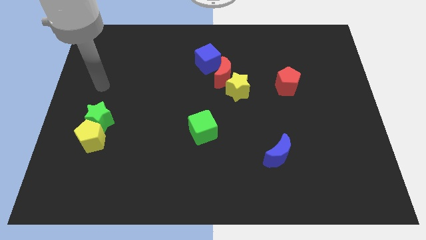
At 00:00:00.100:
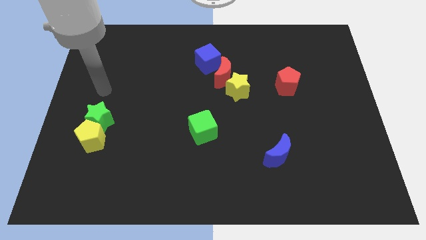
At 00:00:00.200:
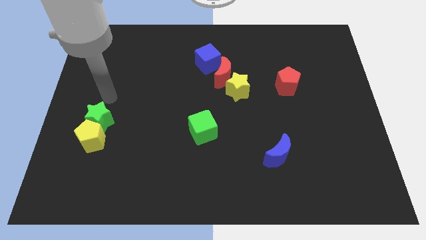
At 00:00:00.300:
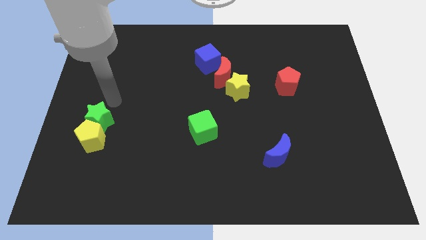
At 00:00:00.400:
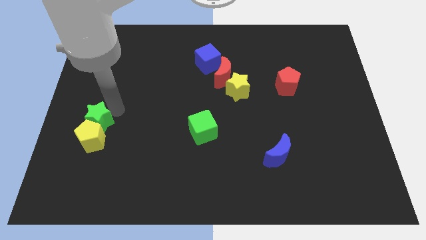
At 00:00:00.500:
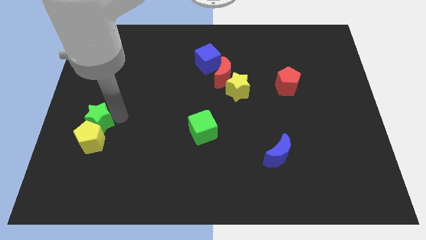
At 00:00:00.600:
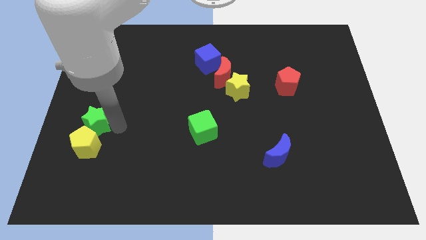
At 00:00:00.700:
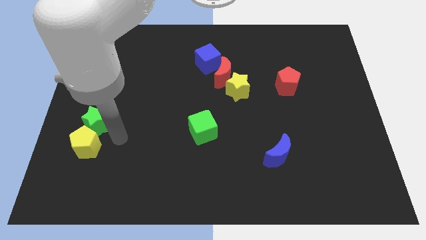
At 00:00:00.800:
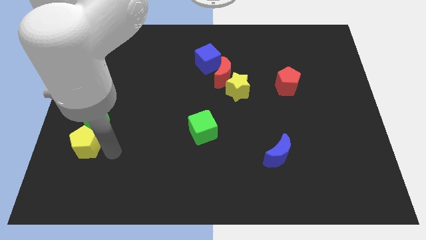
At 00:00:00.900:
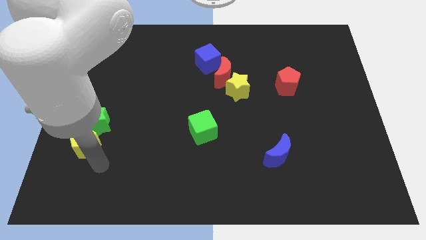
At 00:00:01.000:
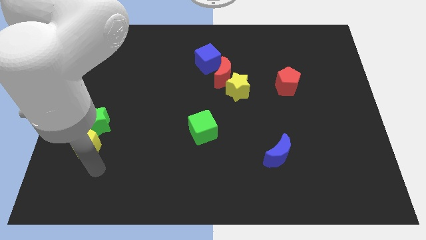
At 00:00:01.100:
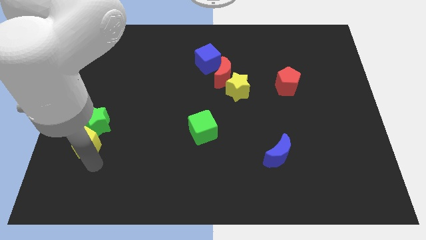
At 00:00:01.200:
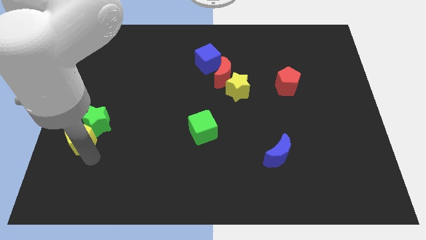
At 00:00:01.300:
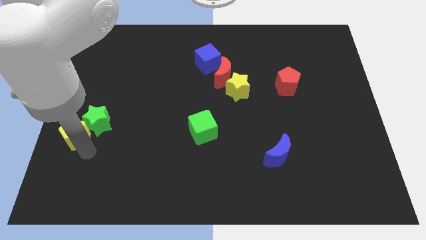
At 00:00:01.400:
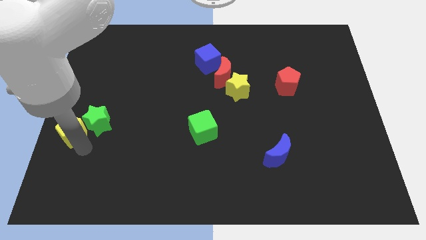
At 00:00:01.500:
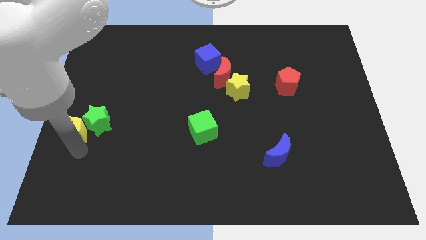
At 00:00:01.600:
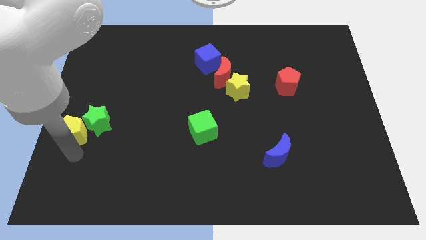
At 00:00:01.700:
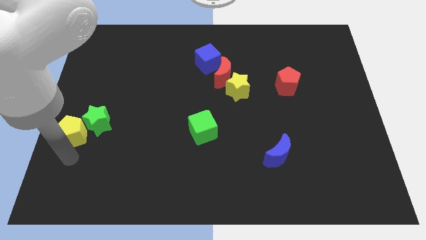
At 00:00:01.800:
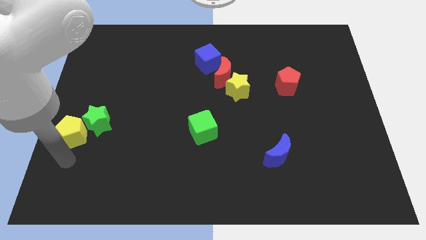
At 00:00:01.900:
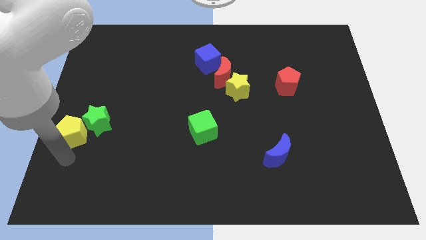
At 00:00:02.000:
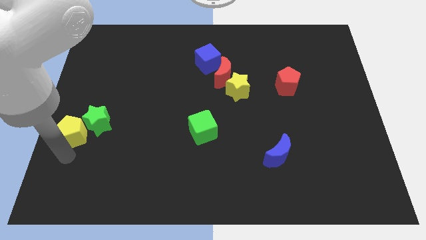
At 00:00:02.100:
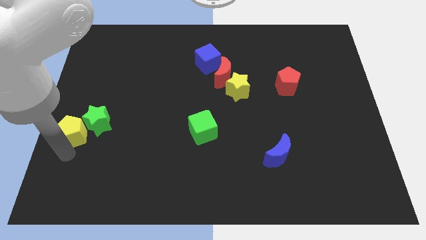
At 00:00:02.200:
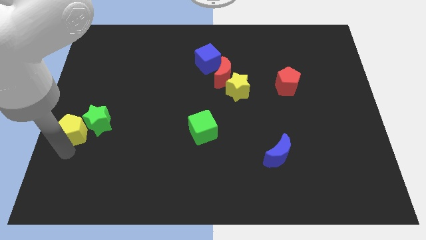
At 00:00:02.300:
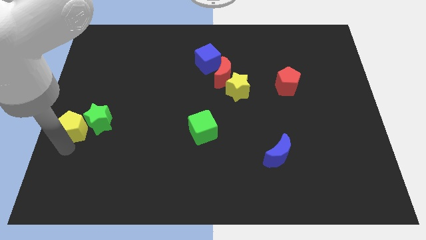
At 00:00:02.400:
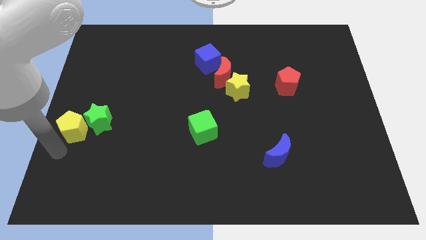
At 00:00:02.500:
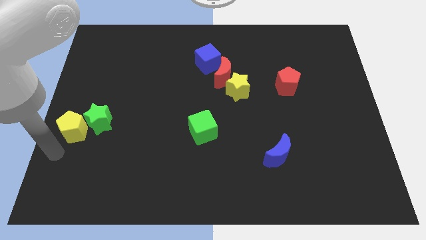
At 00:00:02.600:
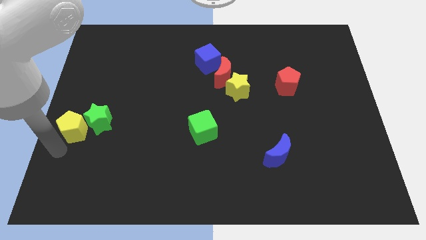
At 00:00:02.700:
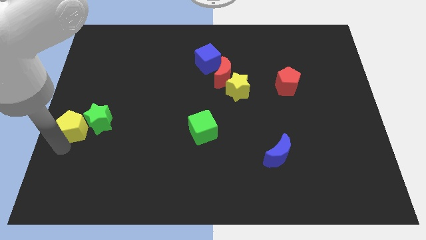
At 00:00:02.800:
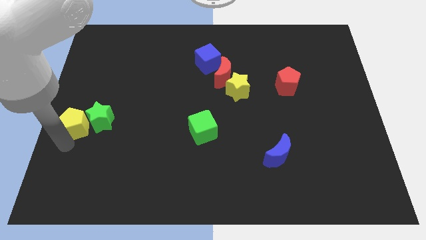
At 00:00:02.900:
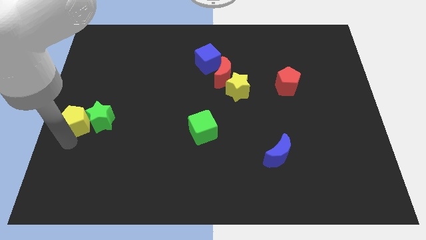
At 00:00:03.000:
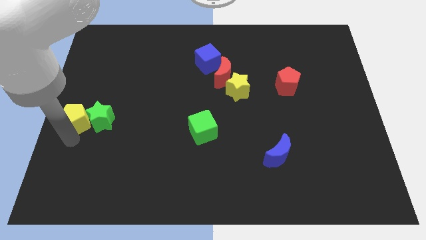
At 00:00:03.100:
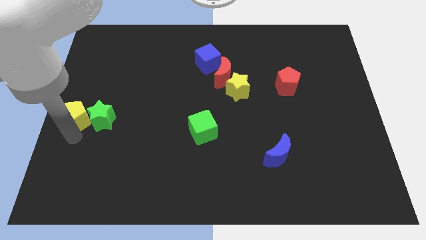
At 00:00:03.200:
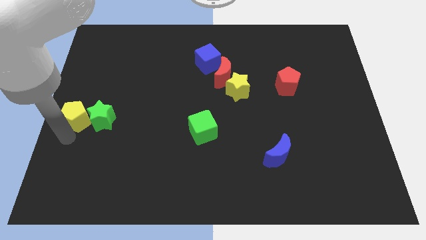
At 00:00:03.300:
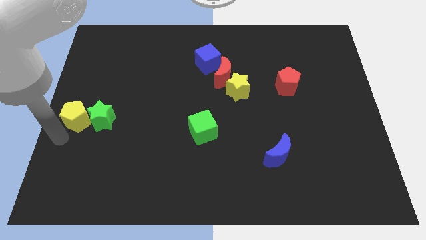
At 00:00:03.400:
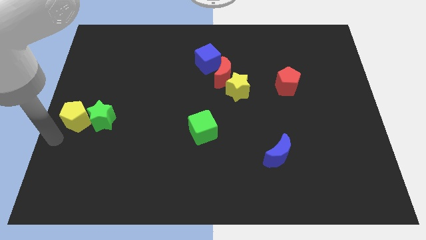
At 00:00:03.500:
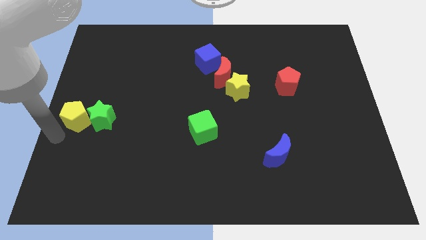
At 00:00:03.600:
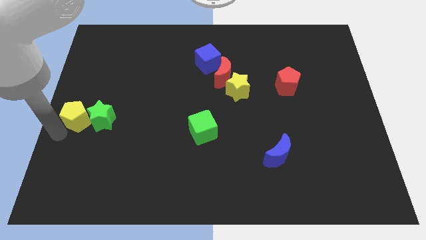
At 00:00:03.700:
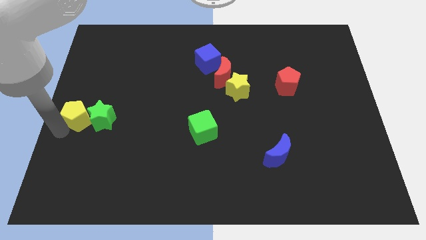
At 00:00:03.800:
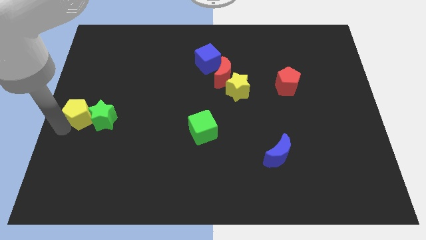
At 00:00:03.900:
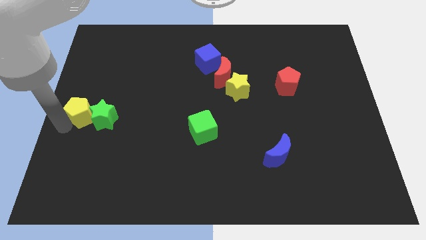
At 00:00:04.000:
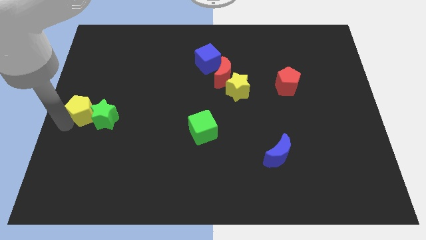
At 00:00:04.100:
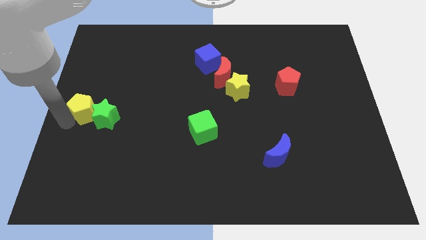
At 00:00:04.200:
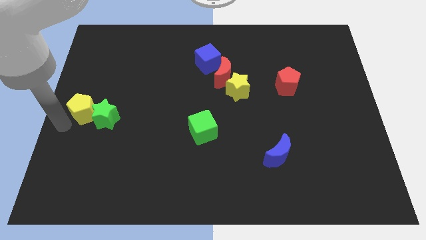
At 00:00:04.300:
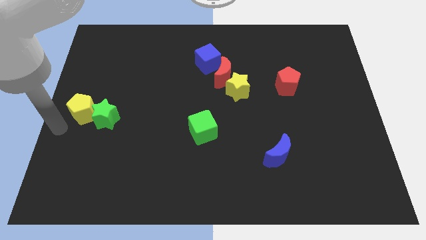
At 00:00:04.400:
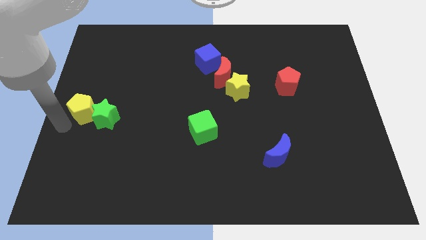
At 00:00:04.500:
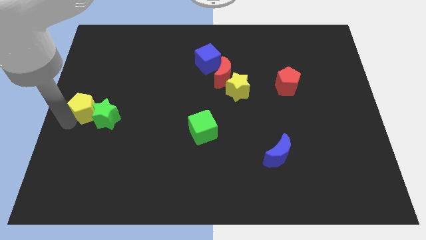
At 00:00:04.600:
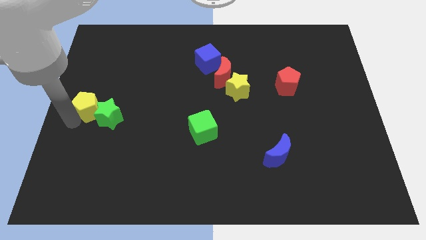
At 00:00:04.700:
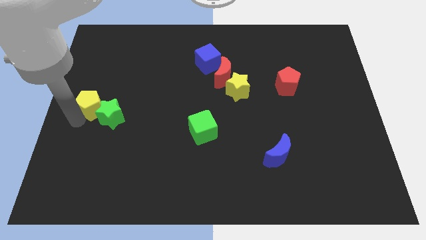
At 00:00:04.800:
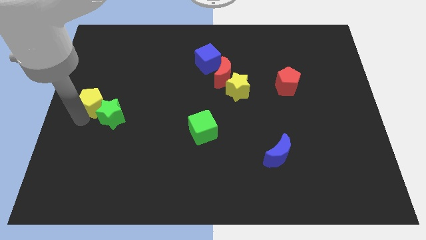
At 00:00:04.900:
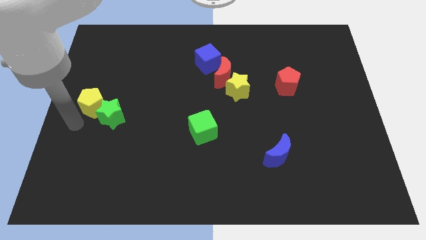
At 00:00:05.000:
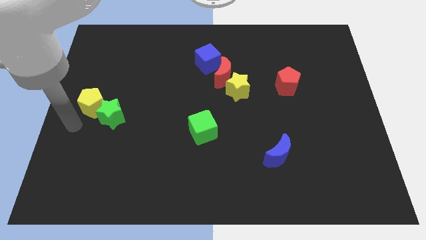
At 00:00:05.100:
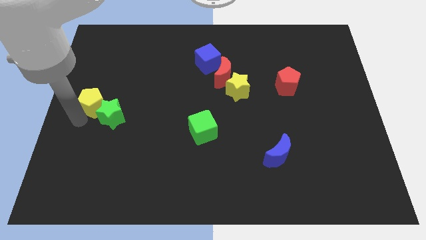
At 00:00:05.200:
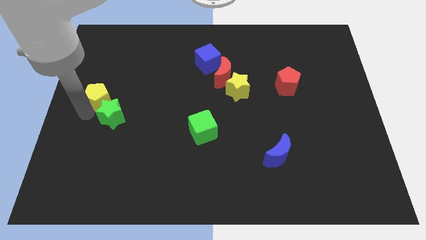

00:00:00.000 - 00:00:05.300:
slide the yellow pentagon to the top of the green star

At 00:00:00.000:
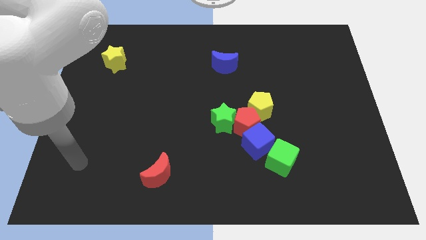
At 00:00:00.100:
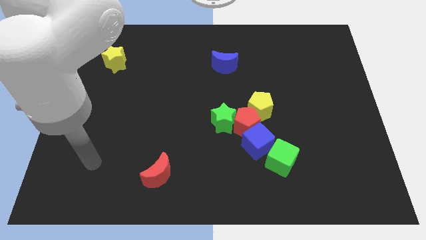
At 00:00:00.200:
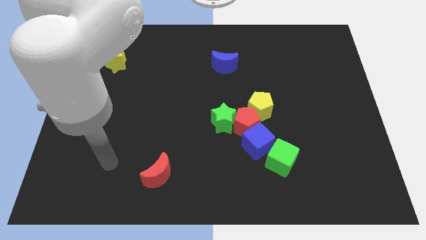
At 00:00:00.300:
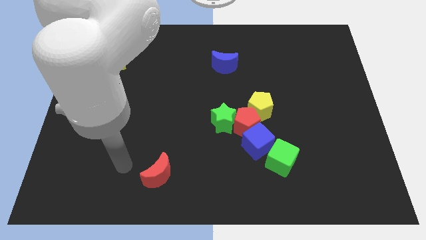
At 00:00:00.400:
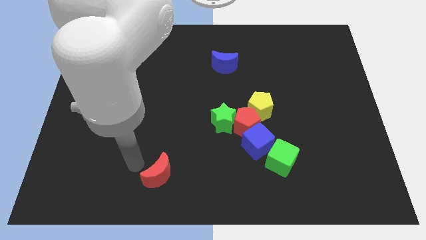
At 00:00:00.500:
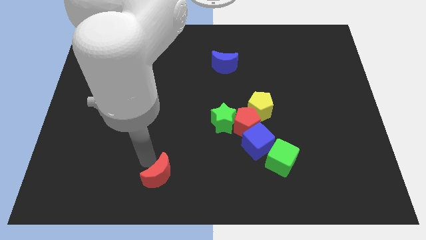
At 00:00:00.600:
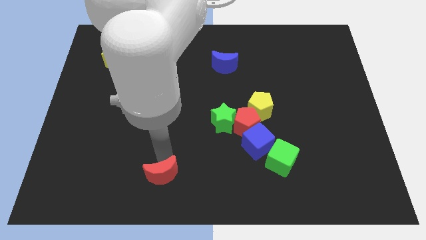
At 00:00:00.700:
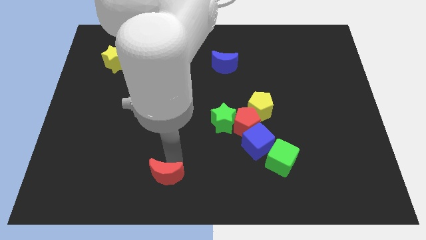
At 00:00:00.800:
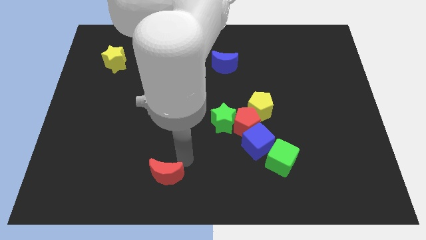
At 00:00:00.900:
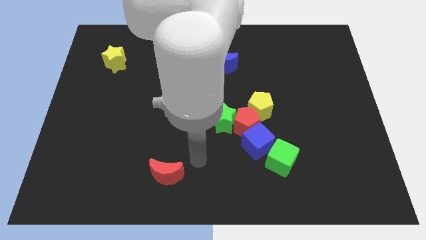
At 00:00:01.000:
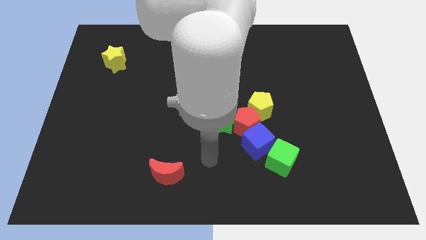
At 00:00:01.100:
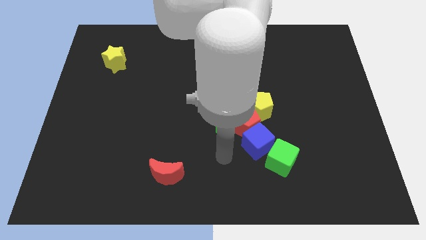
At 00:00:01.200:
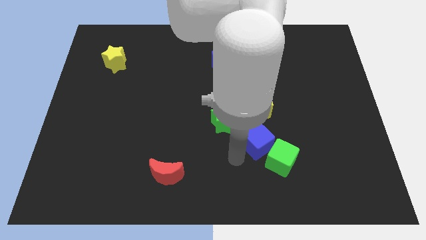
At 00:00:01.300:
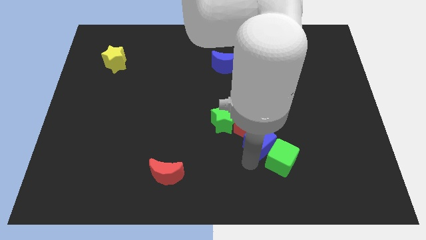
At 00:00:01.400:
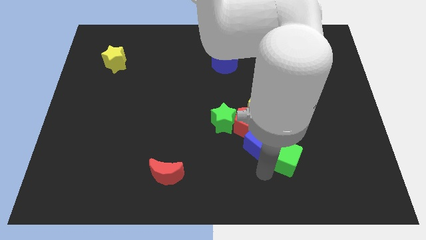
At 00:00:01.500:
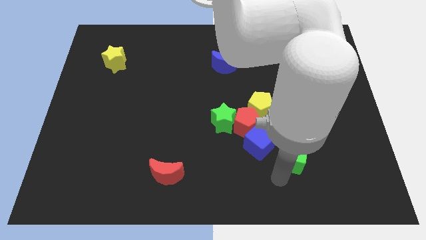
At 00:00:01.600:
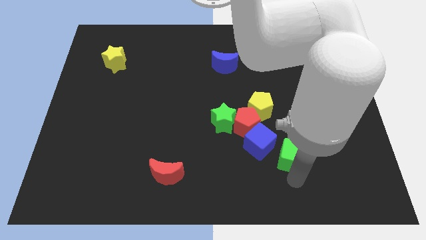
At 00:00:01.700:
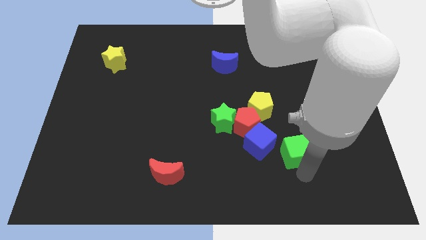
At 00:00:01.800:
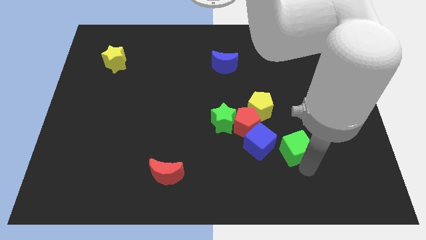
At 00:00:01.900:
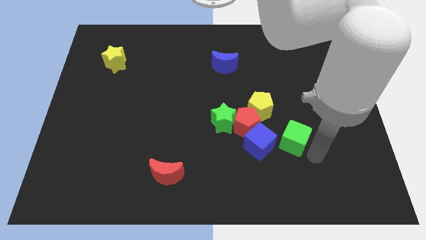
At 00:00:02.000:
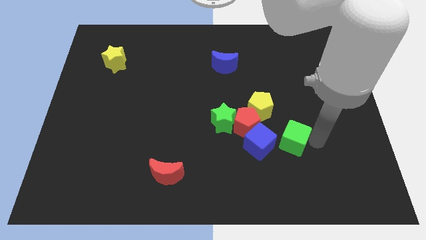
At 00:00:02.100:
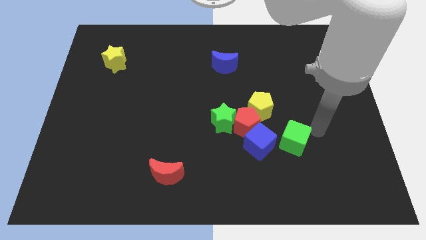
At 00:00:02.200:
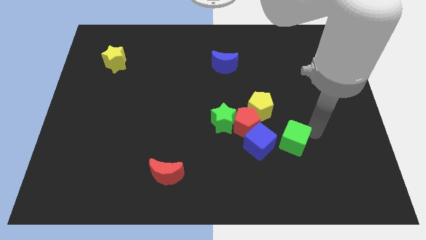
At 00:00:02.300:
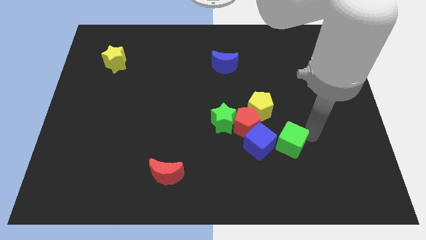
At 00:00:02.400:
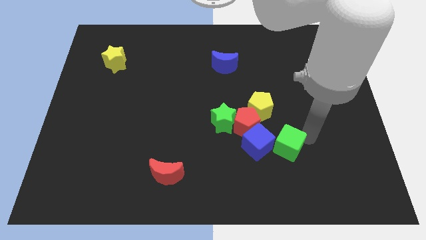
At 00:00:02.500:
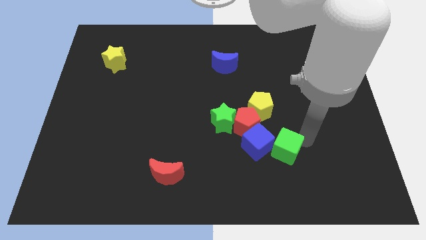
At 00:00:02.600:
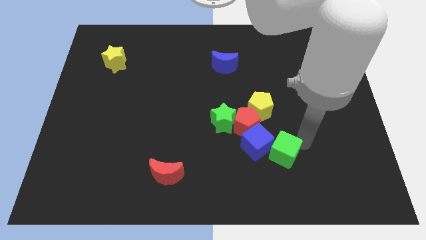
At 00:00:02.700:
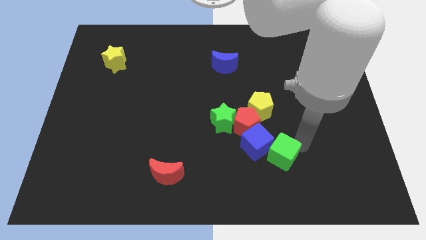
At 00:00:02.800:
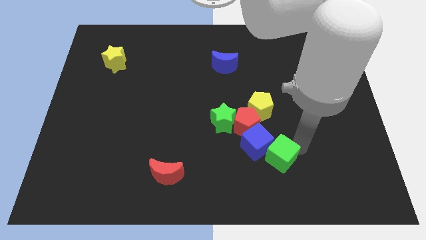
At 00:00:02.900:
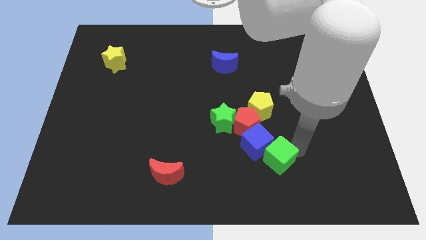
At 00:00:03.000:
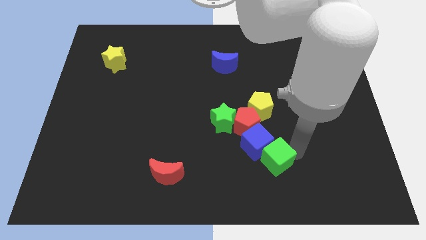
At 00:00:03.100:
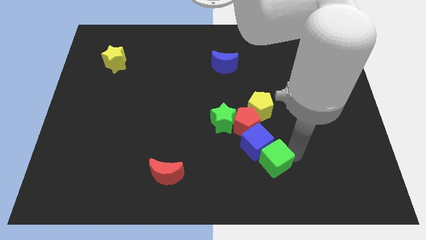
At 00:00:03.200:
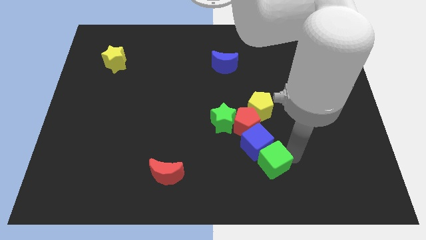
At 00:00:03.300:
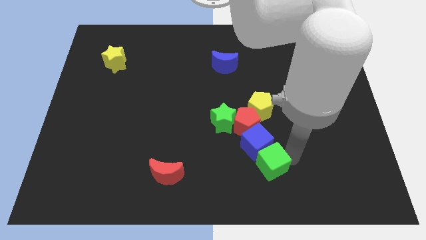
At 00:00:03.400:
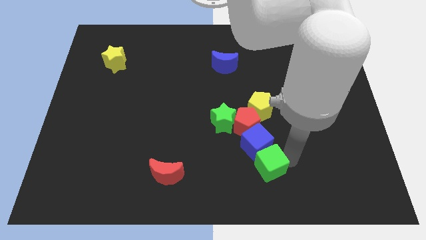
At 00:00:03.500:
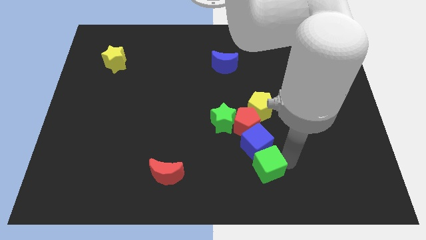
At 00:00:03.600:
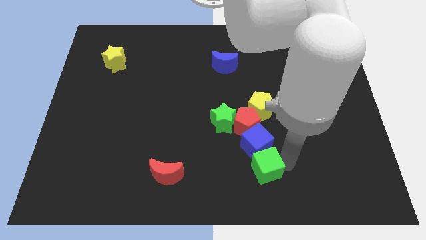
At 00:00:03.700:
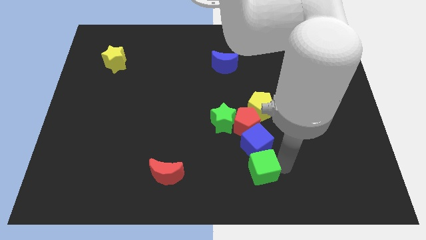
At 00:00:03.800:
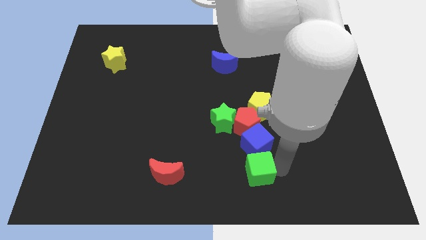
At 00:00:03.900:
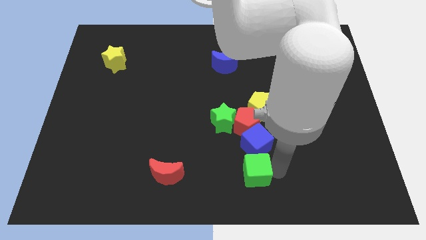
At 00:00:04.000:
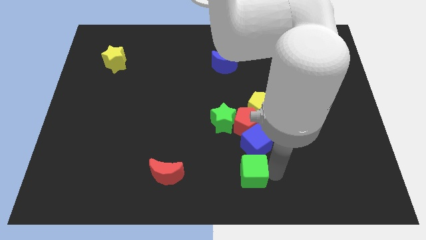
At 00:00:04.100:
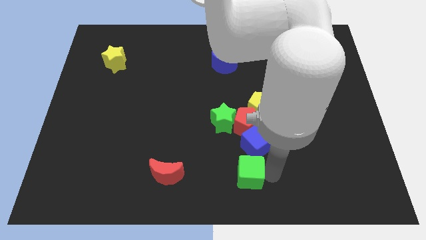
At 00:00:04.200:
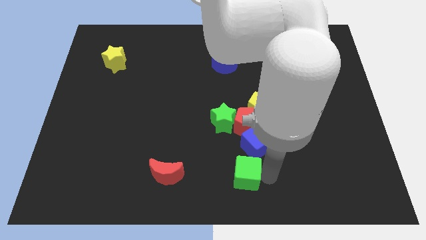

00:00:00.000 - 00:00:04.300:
push the green cube to the bottom of the green star
